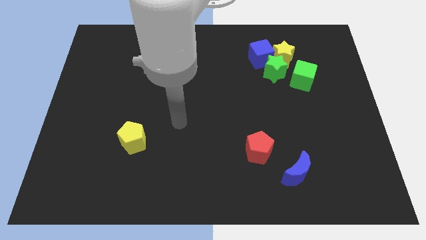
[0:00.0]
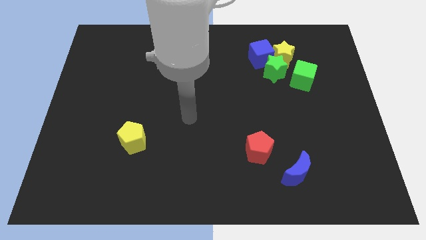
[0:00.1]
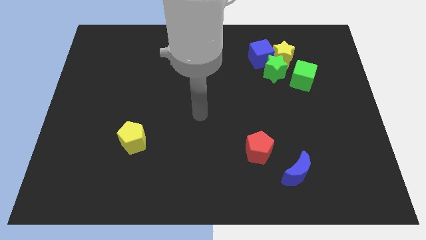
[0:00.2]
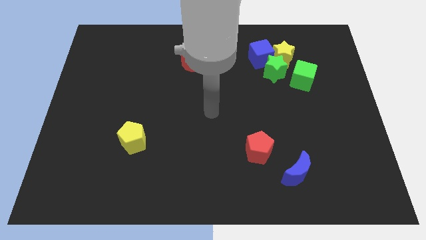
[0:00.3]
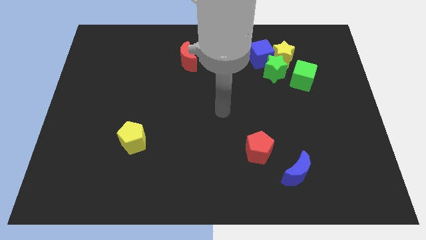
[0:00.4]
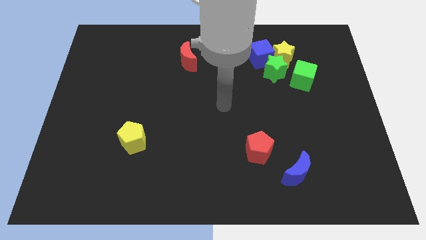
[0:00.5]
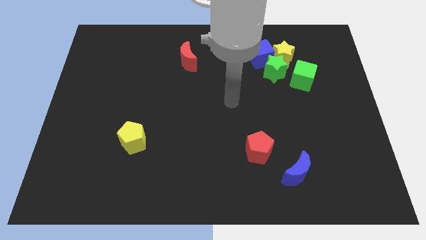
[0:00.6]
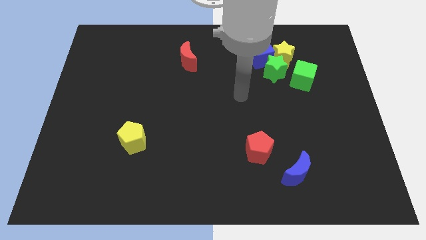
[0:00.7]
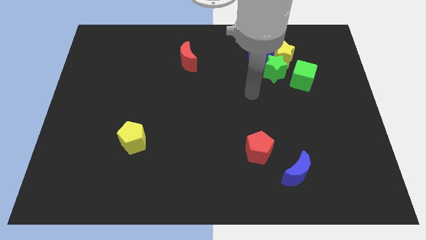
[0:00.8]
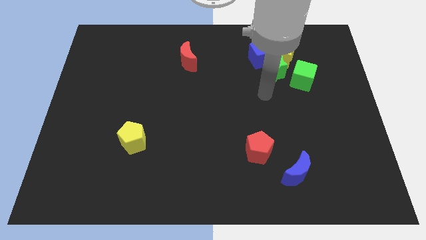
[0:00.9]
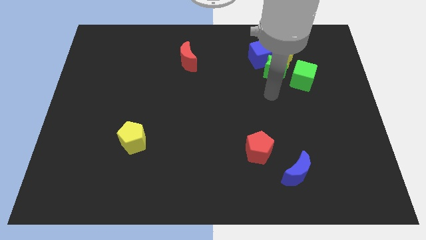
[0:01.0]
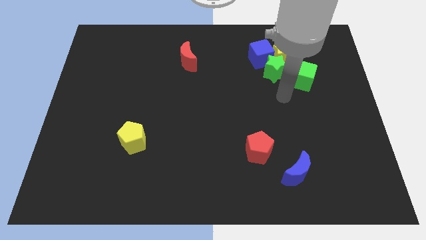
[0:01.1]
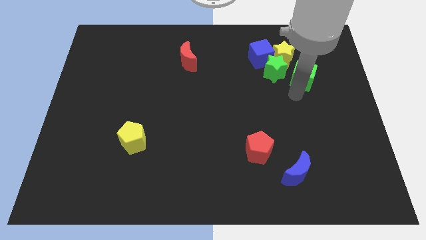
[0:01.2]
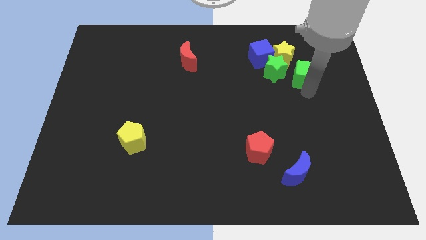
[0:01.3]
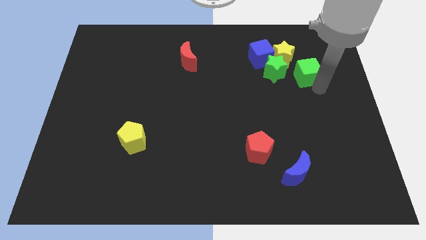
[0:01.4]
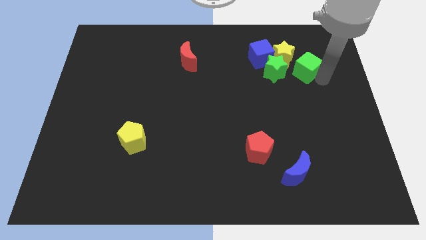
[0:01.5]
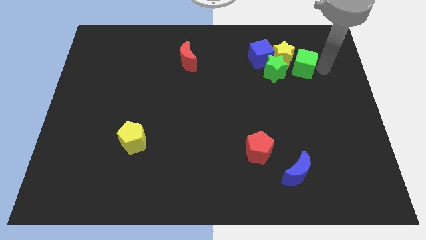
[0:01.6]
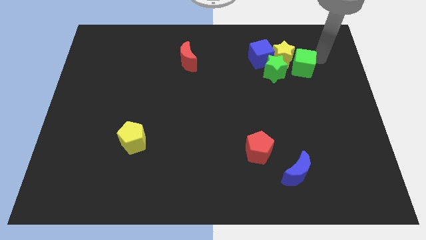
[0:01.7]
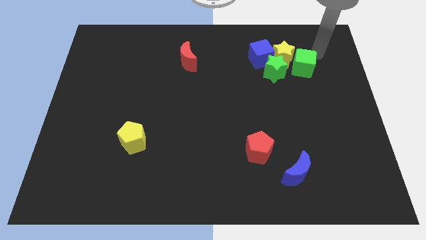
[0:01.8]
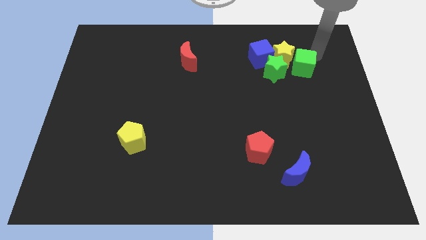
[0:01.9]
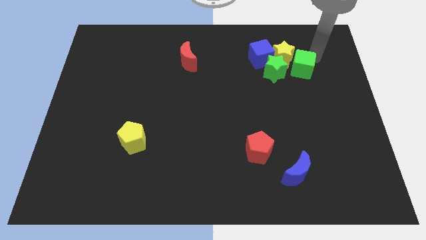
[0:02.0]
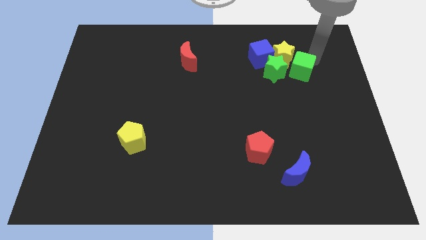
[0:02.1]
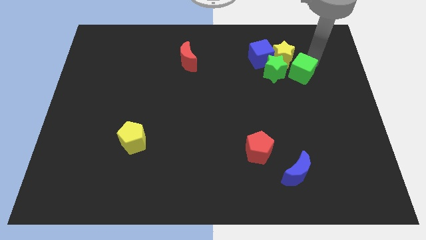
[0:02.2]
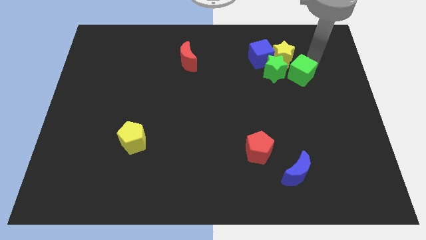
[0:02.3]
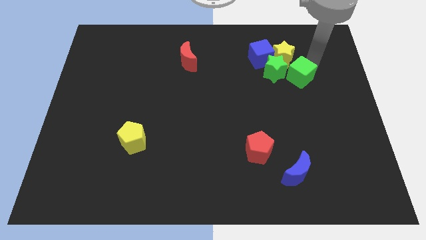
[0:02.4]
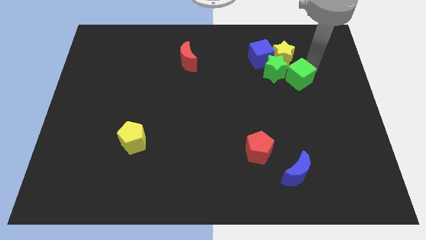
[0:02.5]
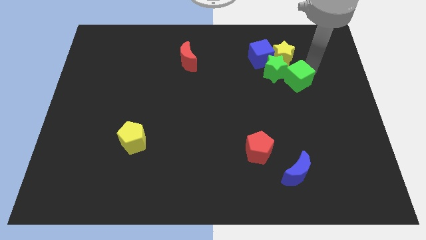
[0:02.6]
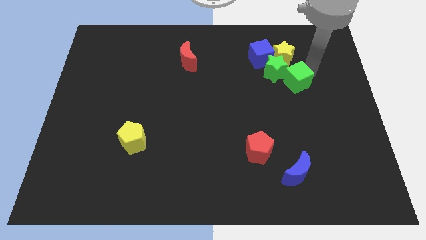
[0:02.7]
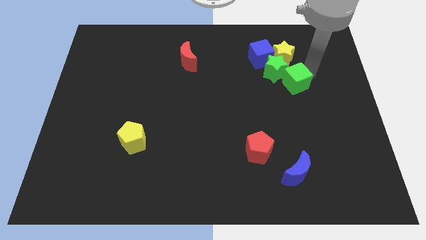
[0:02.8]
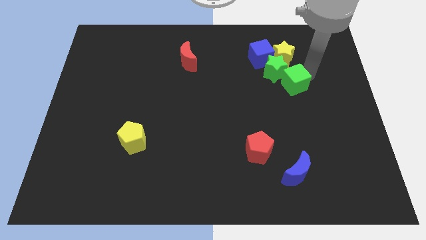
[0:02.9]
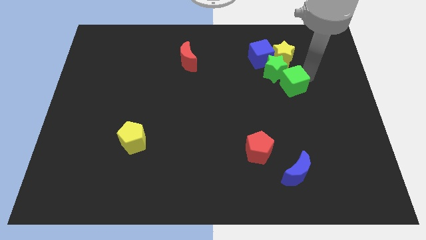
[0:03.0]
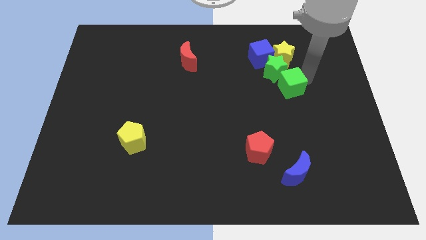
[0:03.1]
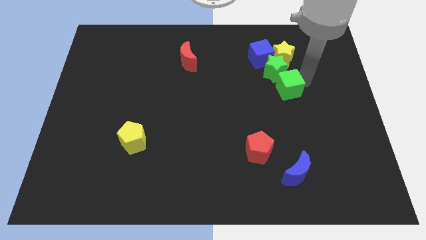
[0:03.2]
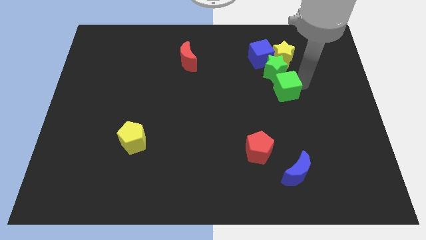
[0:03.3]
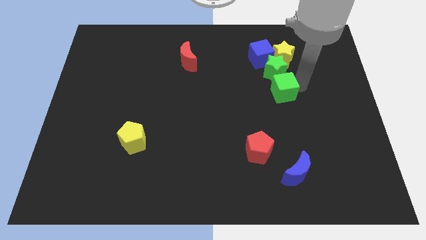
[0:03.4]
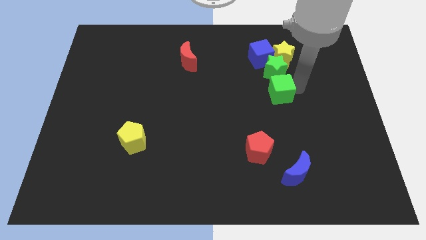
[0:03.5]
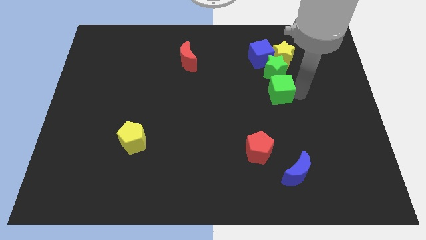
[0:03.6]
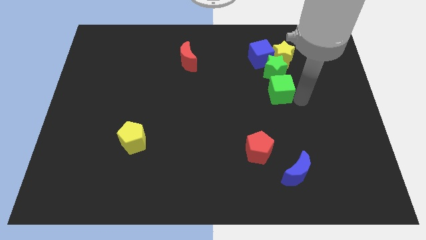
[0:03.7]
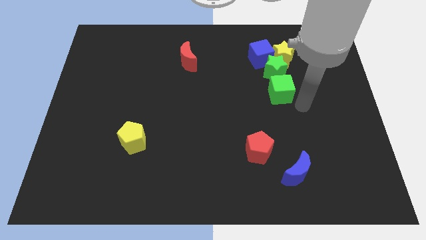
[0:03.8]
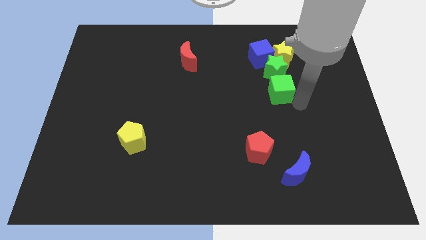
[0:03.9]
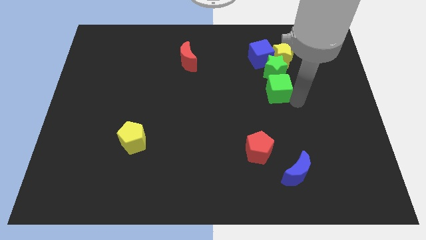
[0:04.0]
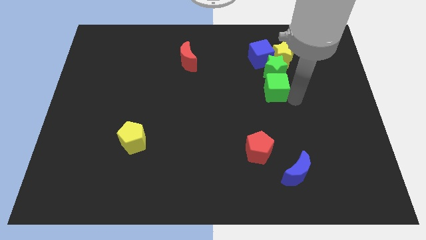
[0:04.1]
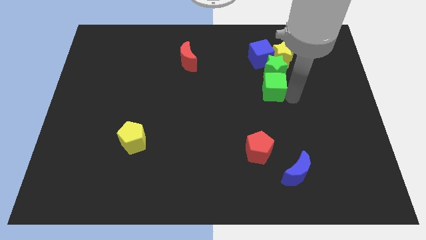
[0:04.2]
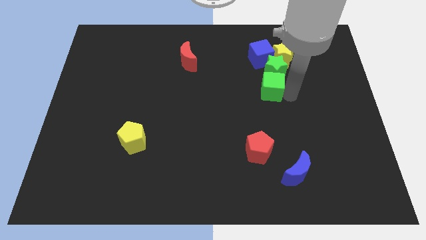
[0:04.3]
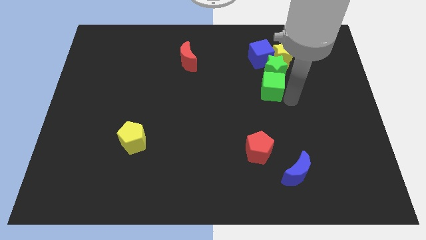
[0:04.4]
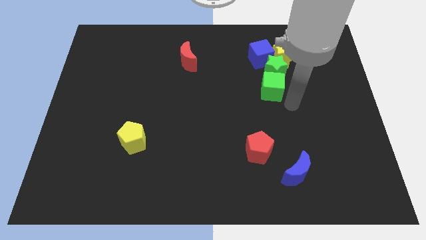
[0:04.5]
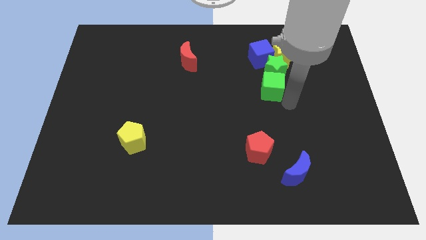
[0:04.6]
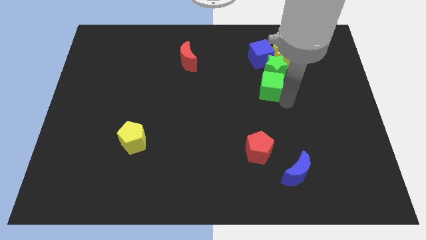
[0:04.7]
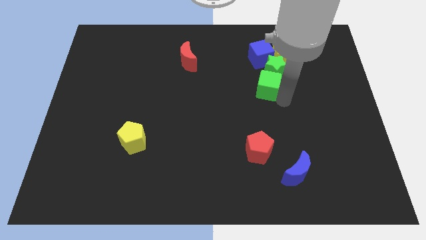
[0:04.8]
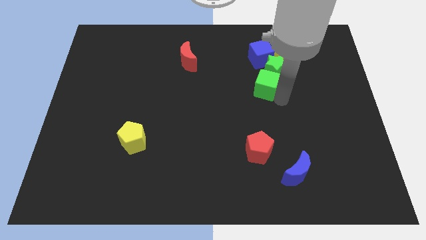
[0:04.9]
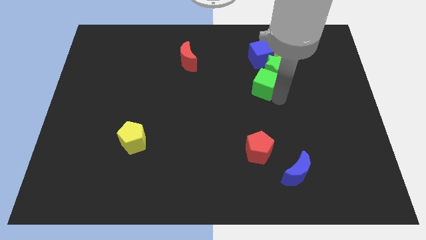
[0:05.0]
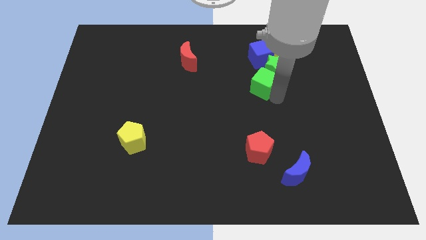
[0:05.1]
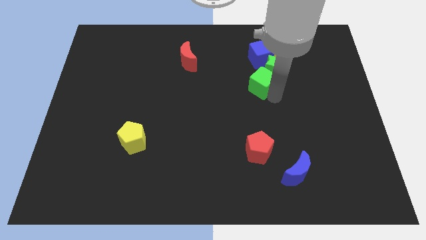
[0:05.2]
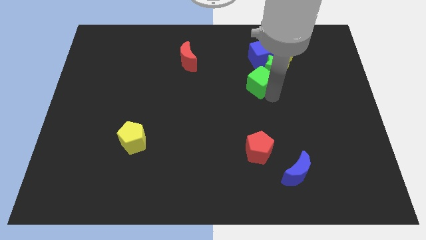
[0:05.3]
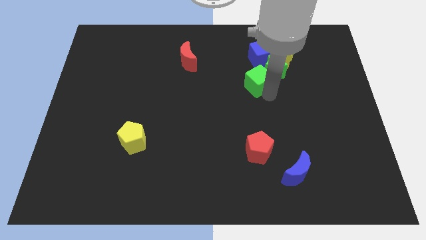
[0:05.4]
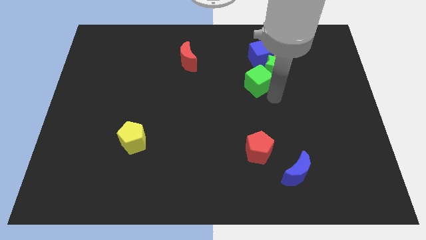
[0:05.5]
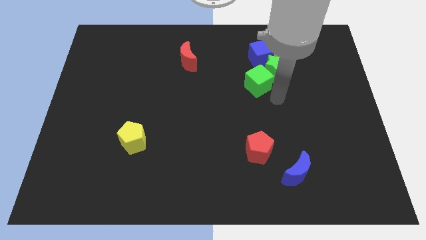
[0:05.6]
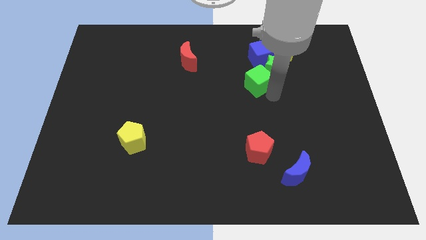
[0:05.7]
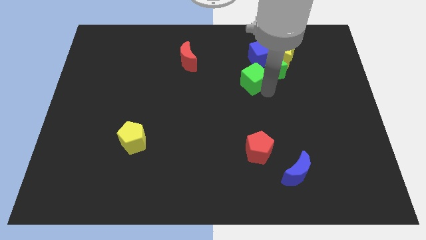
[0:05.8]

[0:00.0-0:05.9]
move the green cube to the bottom left of the blue cube

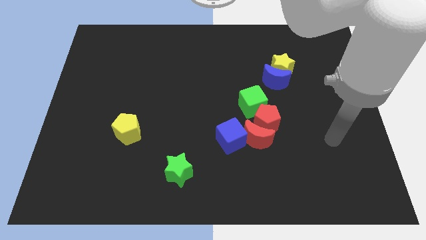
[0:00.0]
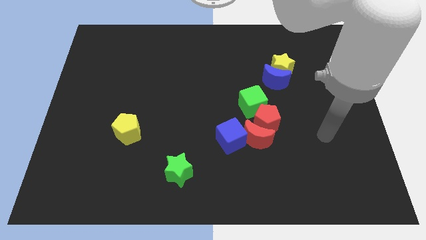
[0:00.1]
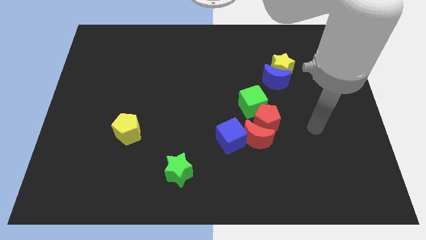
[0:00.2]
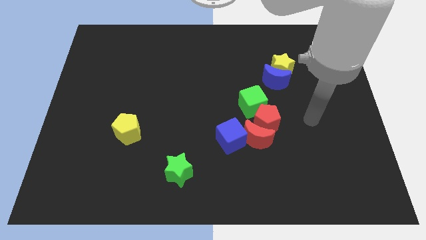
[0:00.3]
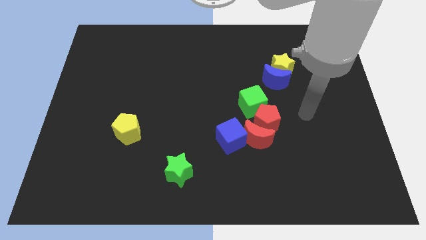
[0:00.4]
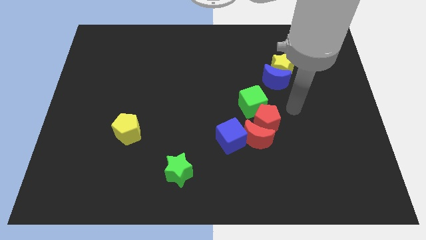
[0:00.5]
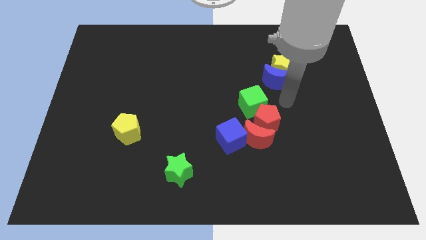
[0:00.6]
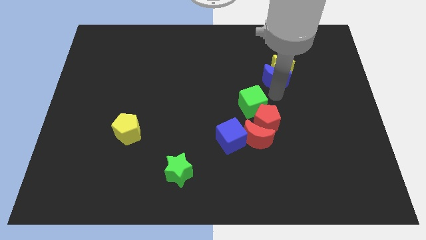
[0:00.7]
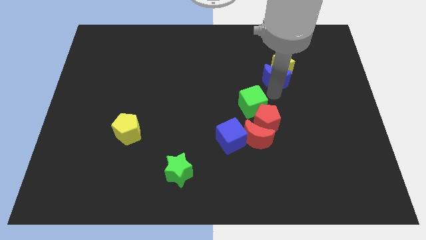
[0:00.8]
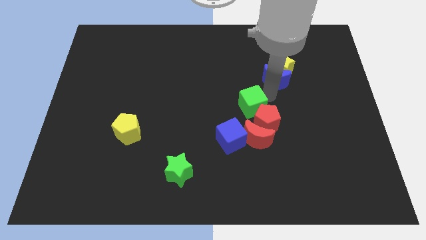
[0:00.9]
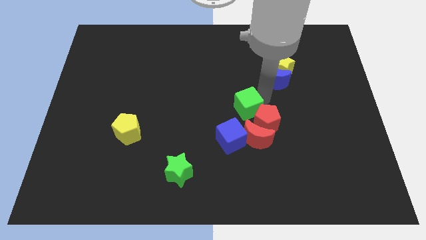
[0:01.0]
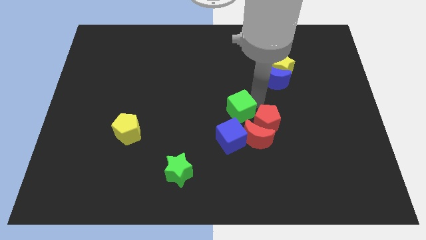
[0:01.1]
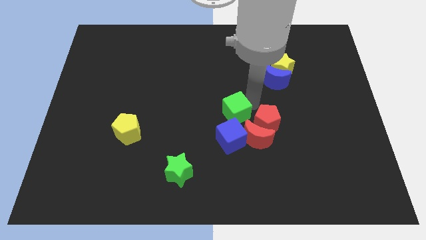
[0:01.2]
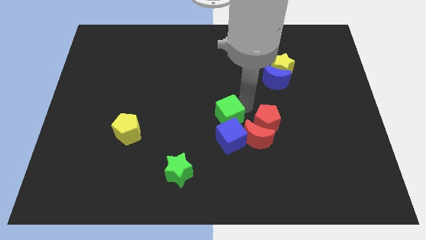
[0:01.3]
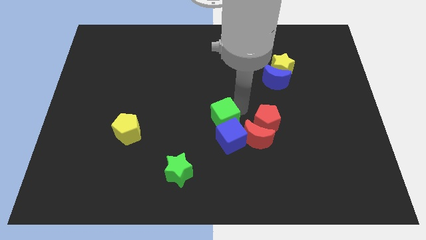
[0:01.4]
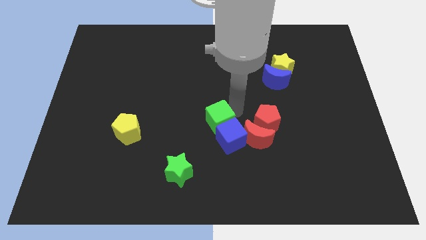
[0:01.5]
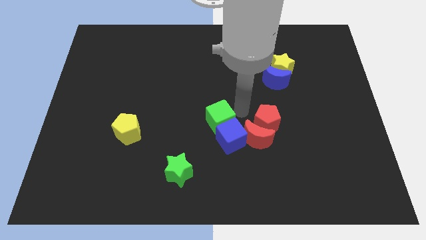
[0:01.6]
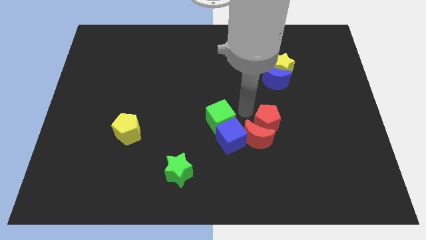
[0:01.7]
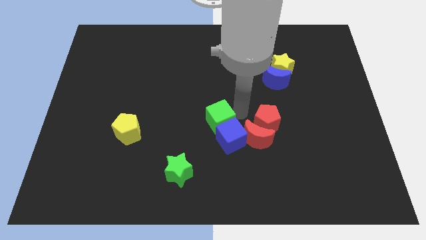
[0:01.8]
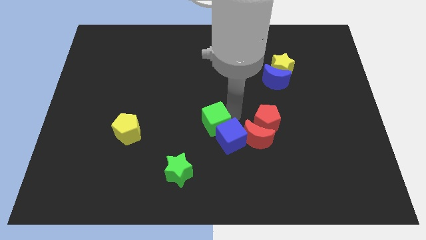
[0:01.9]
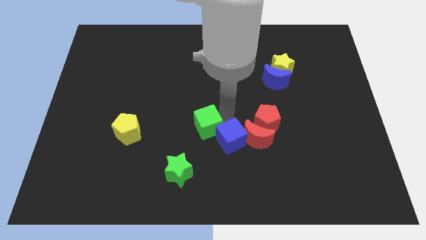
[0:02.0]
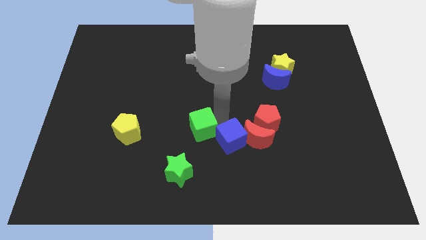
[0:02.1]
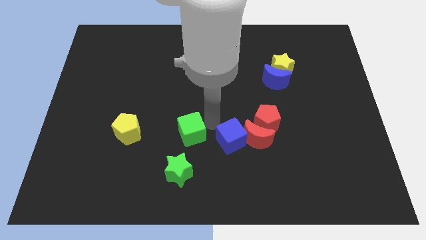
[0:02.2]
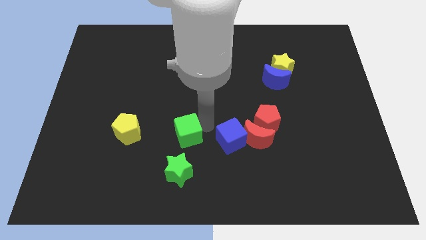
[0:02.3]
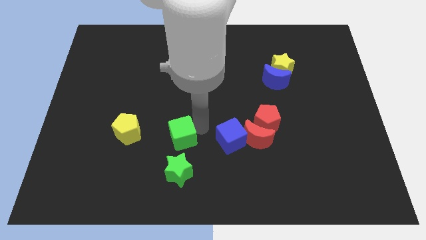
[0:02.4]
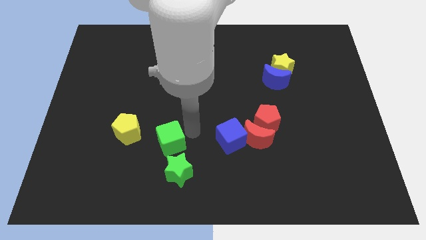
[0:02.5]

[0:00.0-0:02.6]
put the green cube diagonally down and to the right of the yellow pentagon
